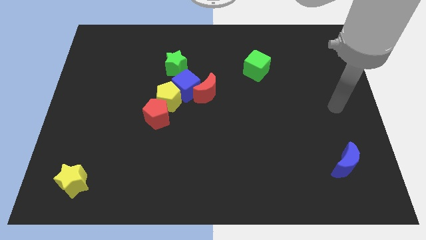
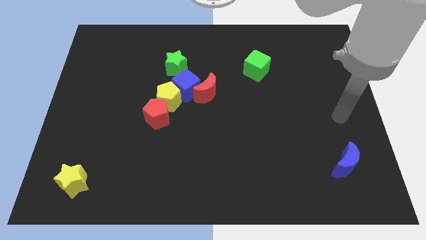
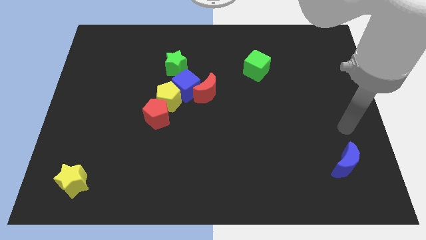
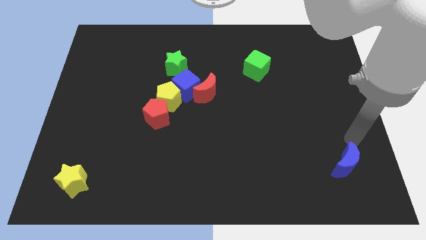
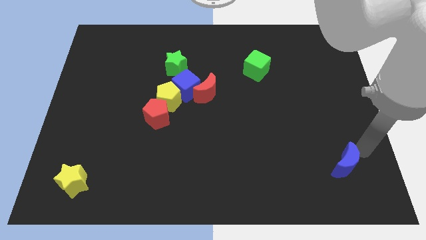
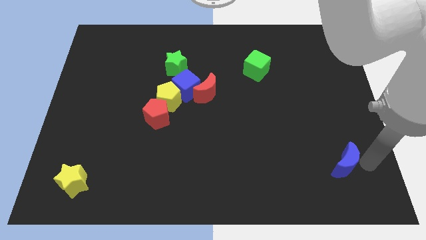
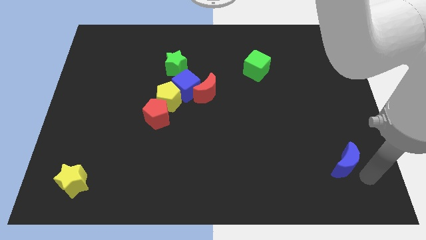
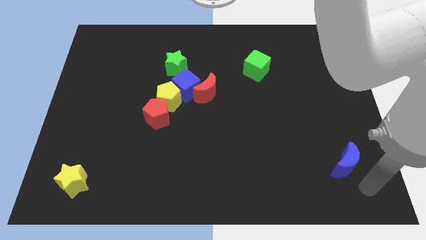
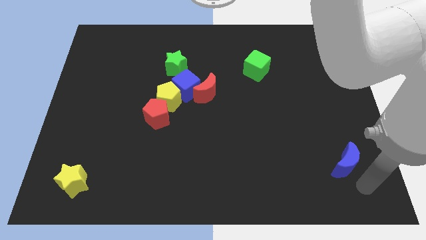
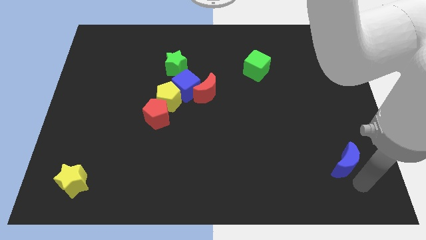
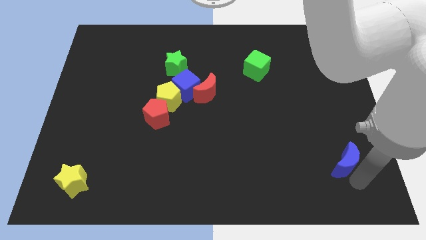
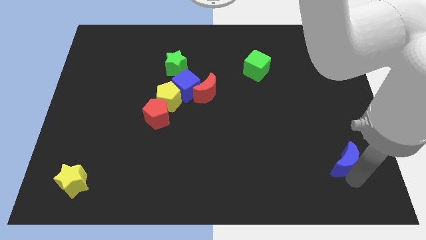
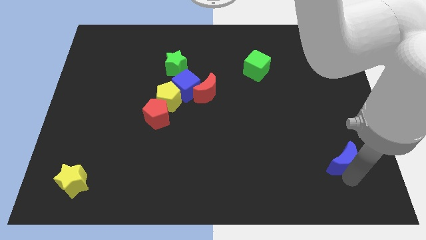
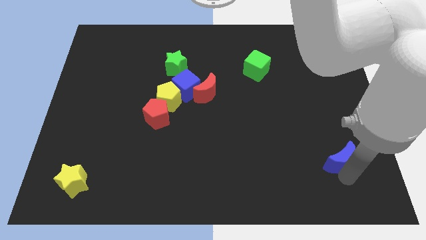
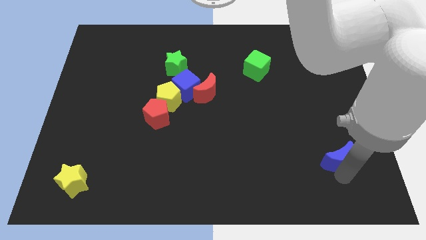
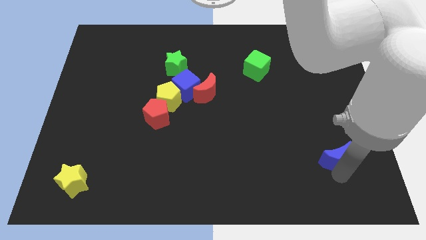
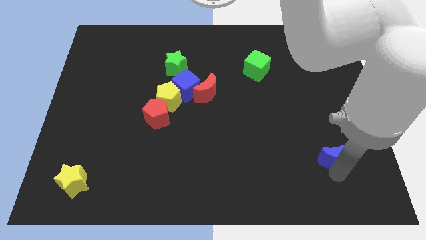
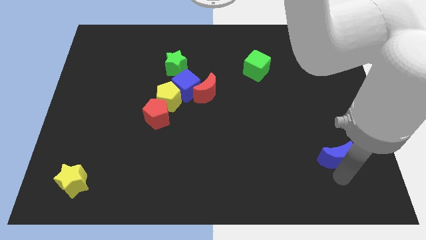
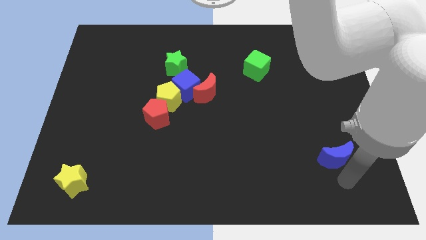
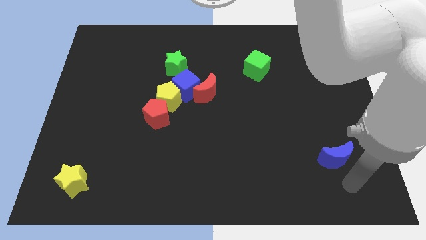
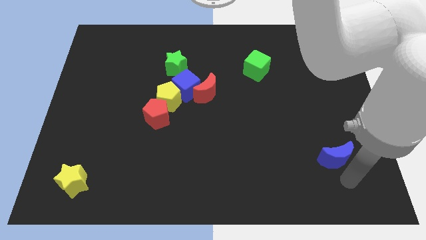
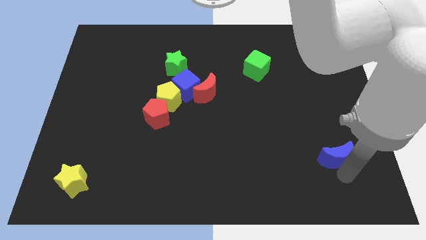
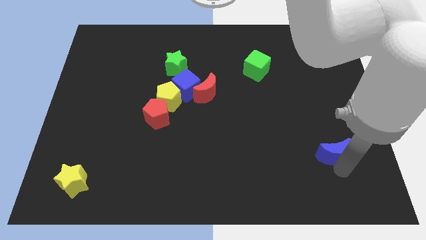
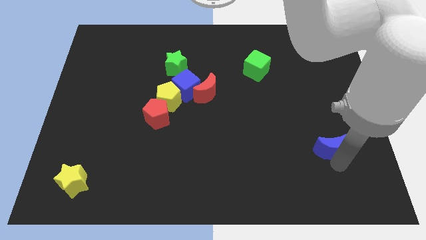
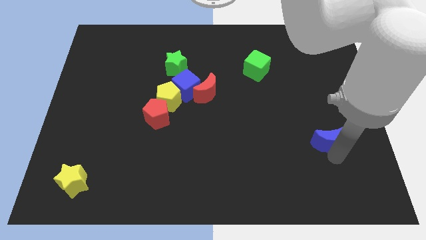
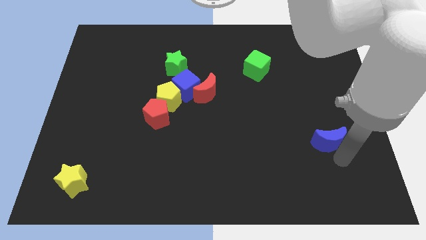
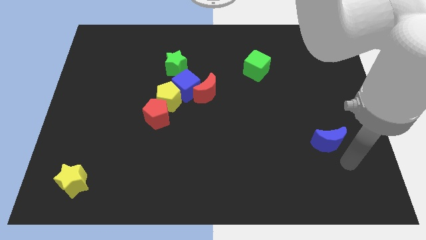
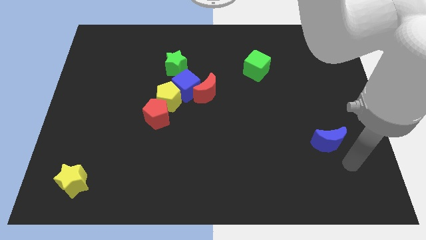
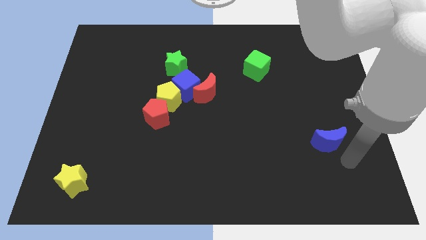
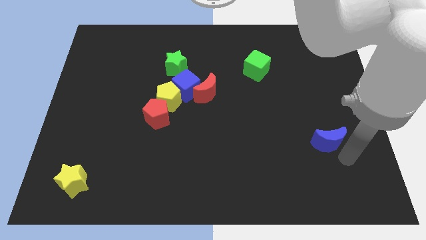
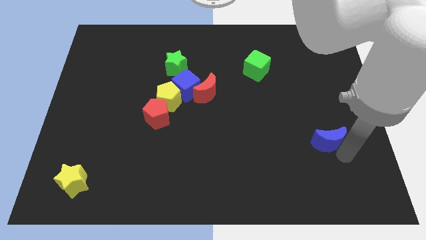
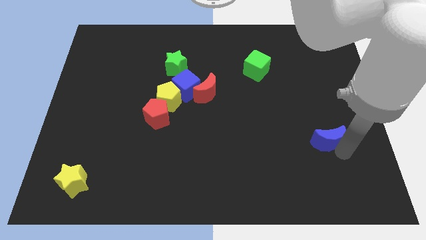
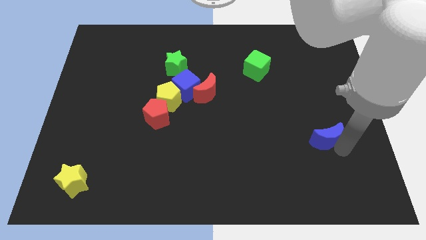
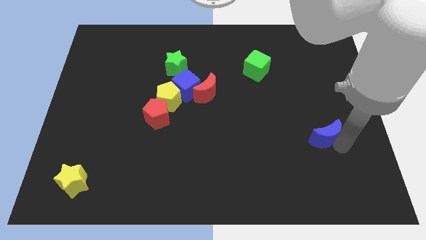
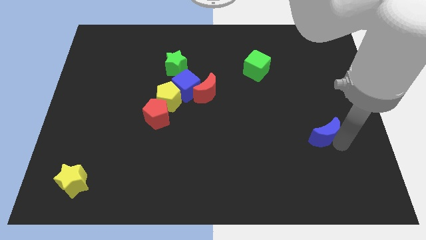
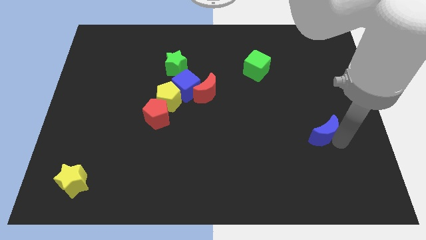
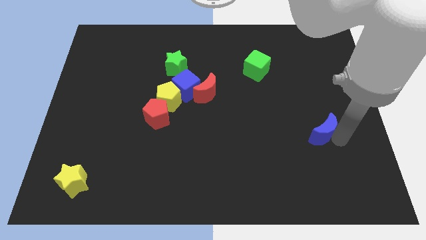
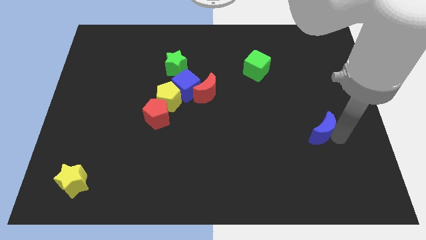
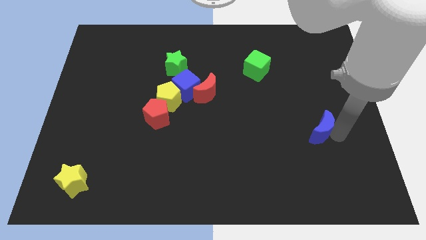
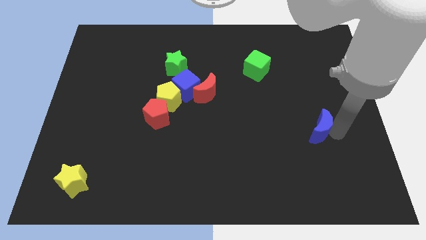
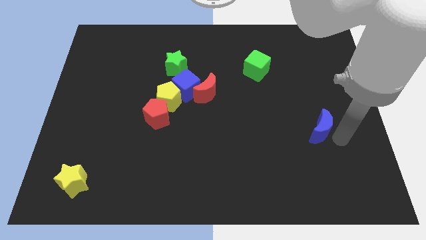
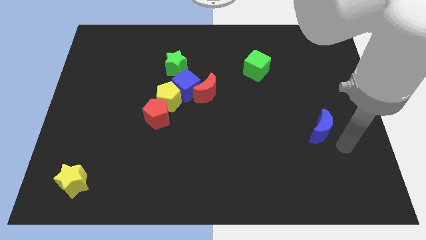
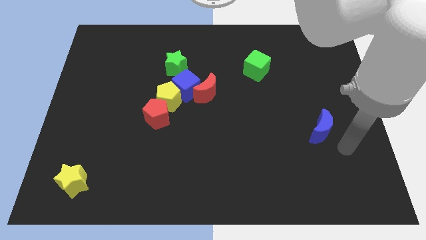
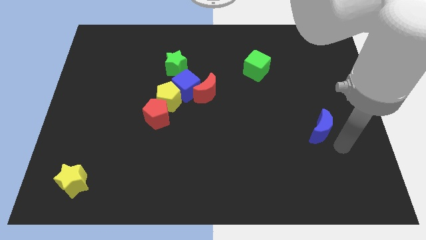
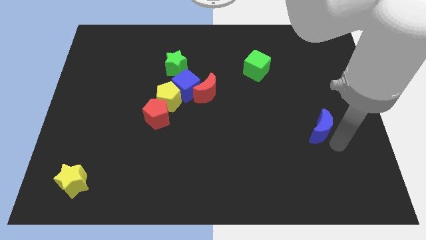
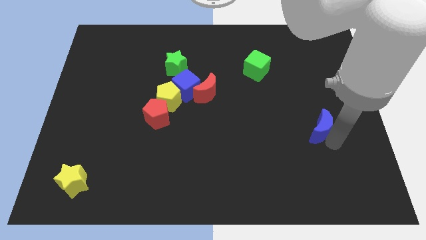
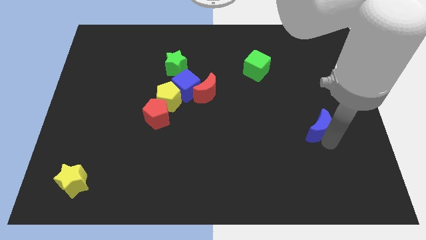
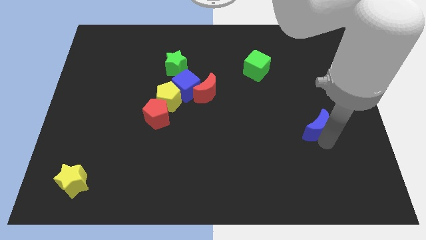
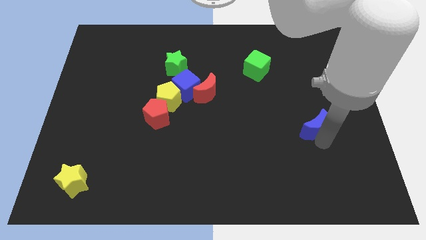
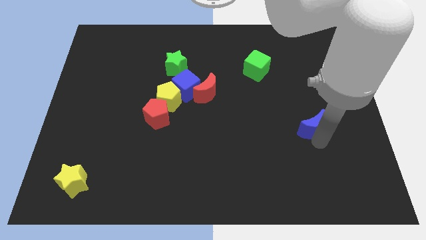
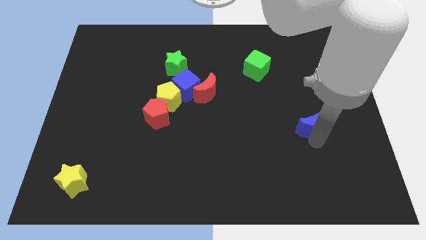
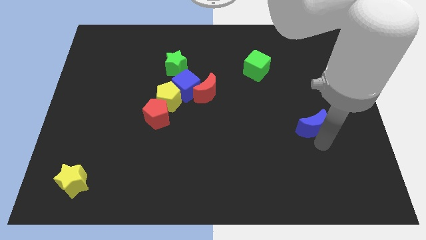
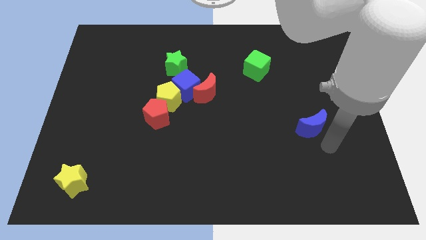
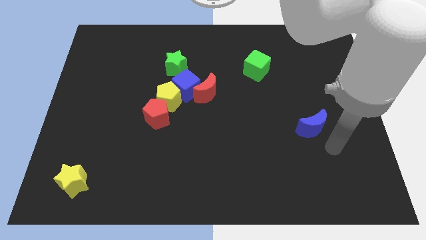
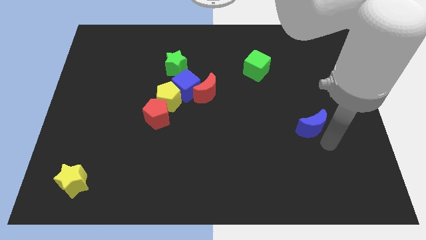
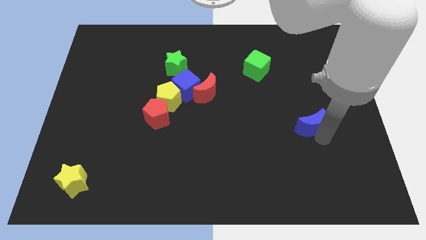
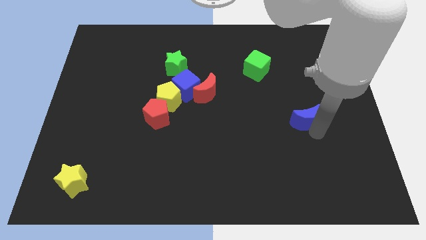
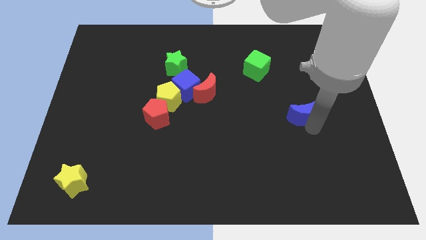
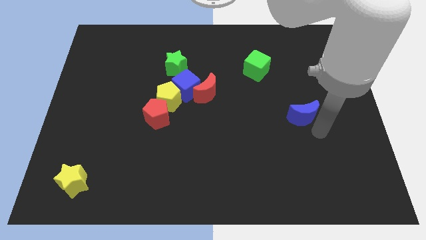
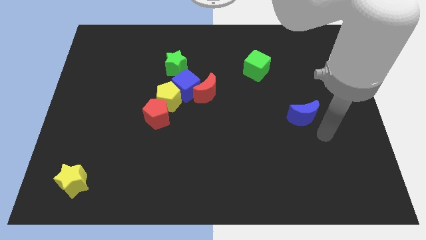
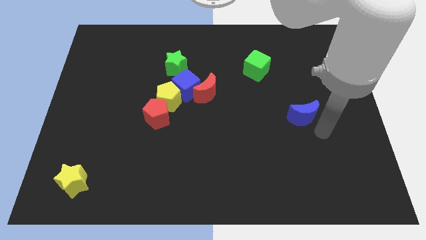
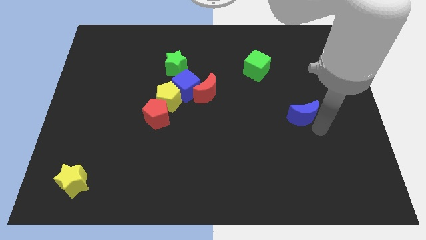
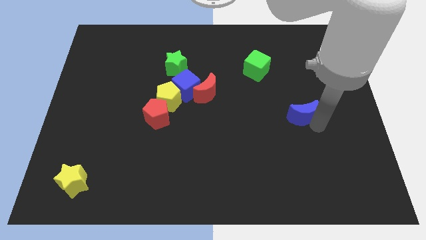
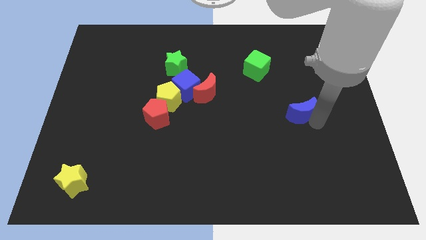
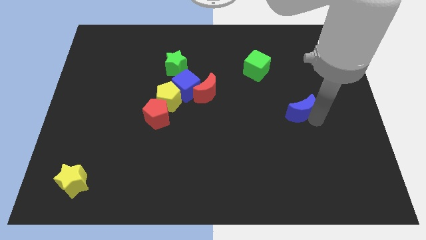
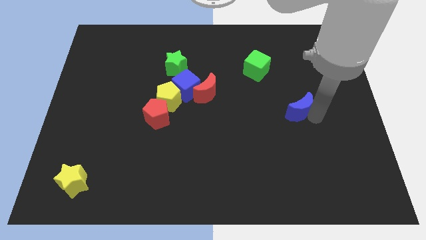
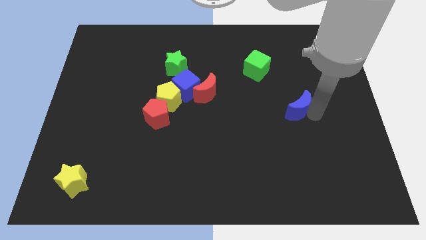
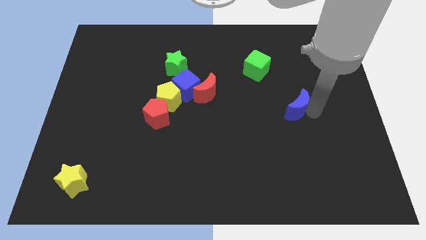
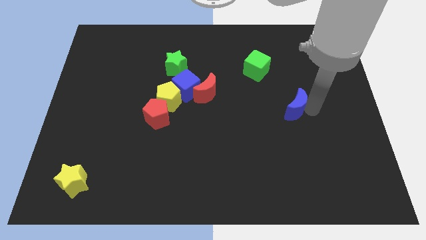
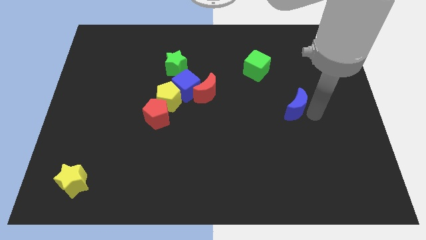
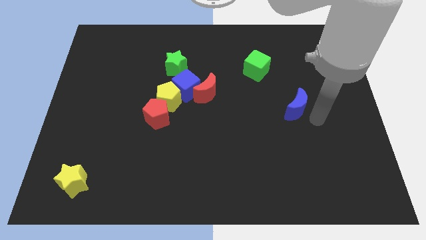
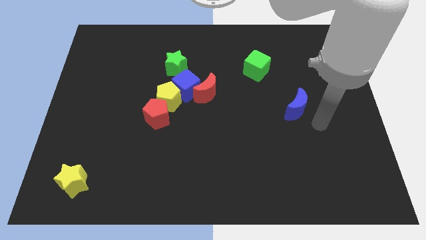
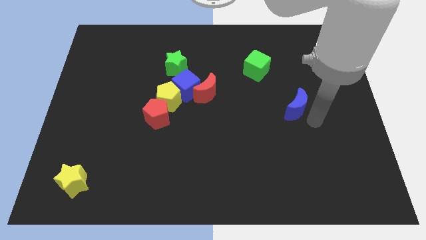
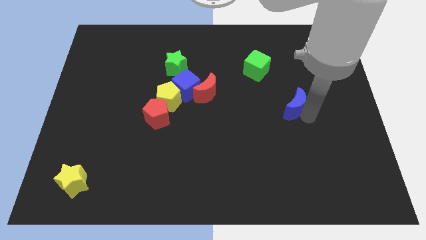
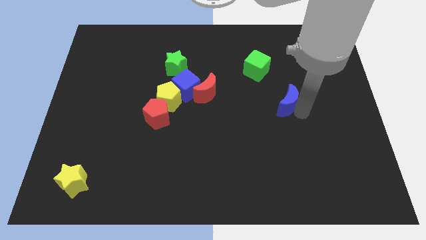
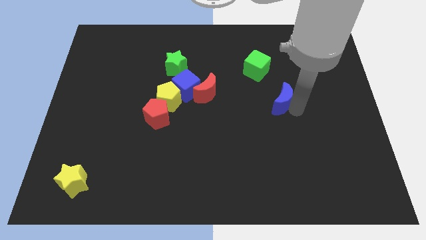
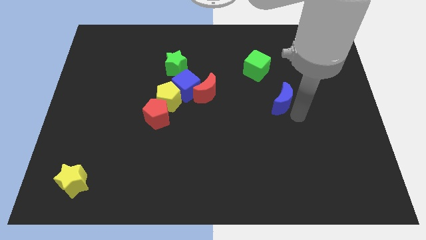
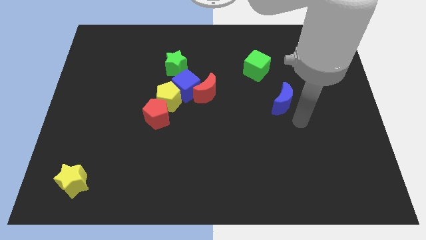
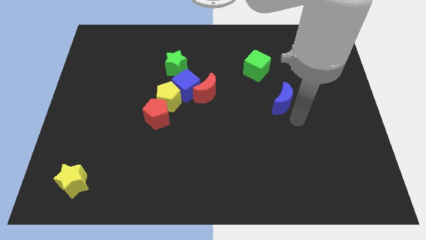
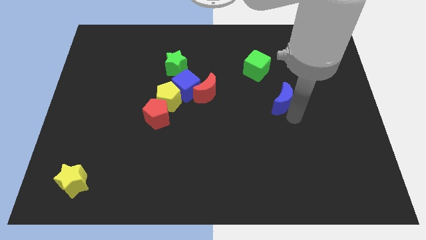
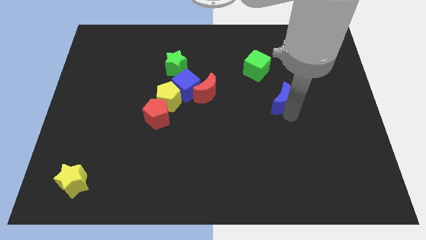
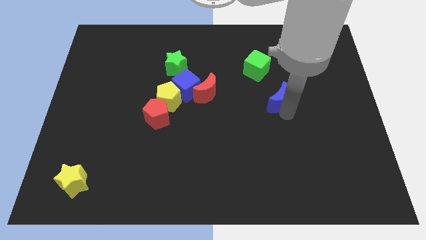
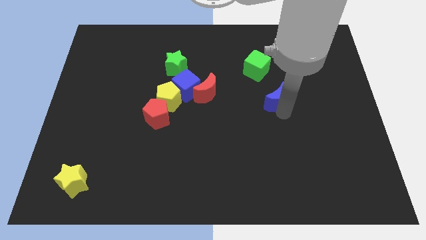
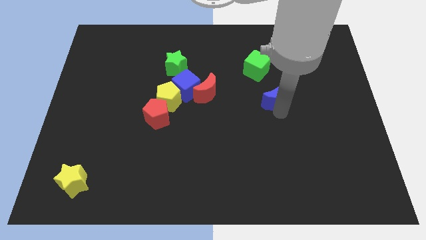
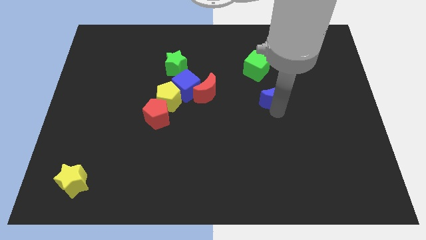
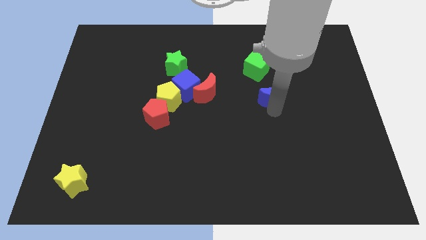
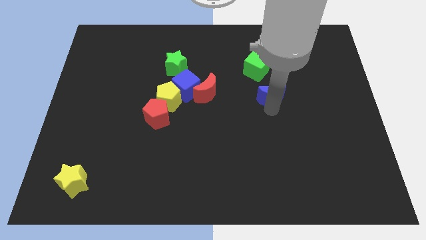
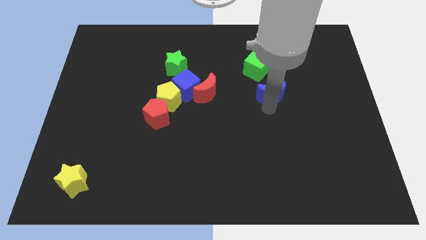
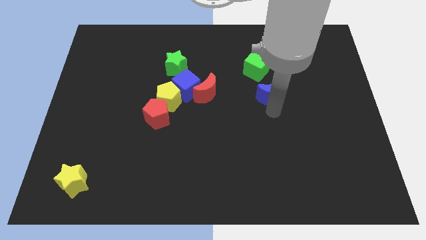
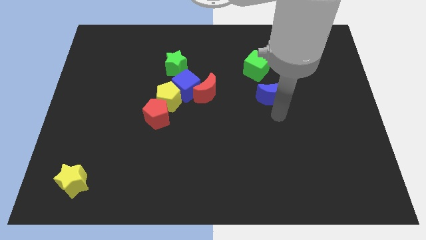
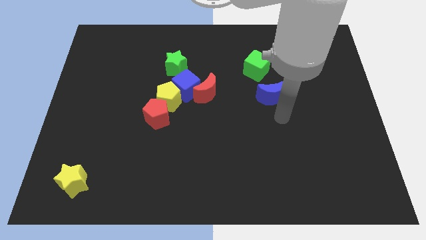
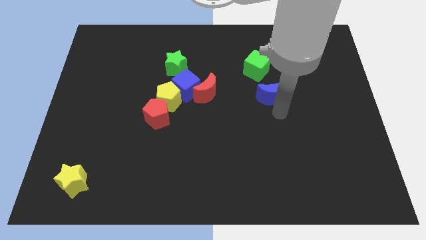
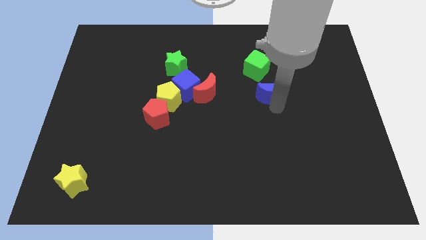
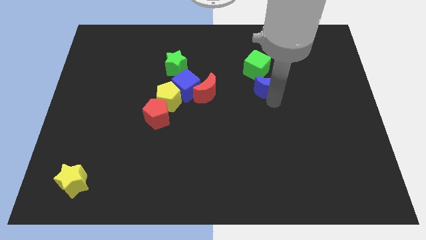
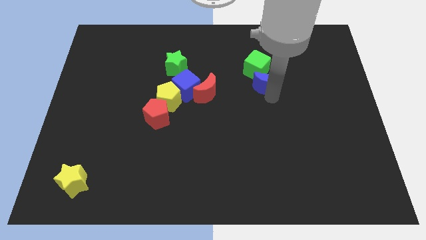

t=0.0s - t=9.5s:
slide the blue moon next to the green cube
